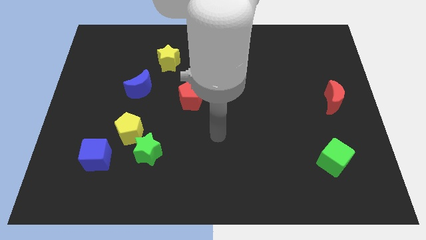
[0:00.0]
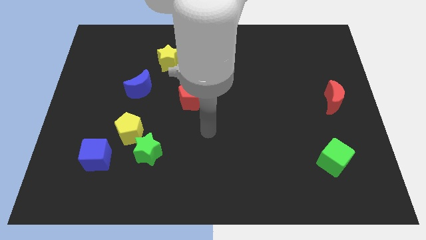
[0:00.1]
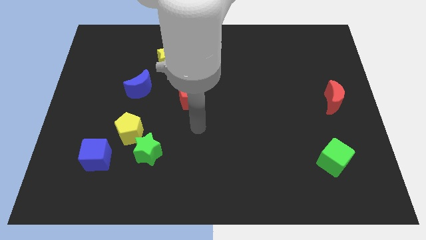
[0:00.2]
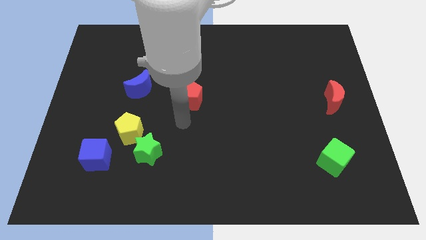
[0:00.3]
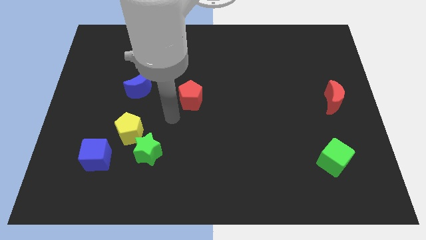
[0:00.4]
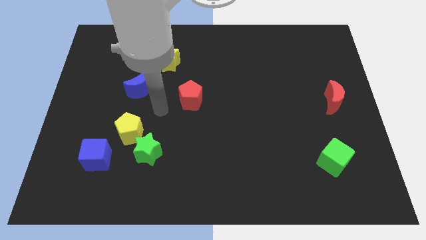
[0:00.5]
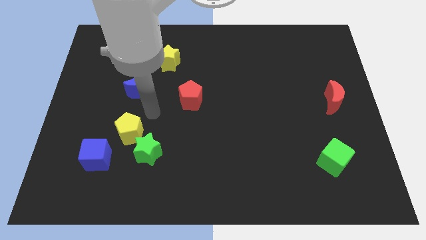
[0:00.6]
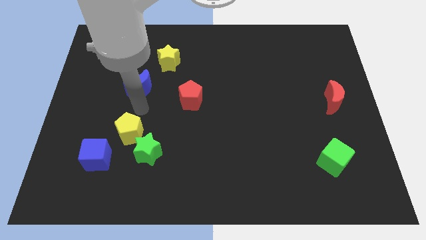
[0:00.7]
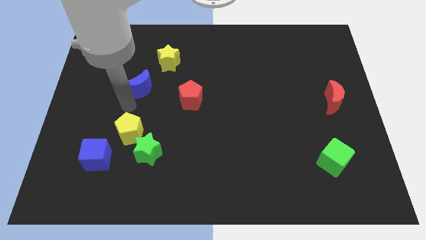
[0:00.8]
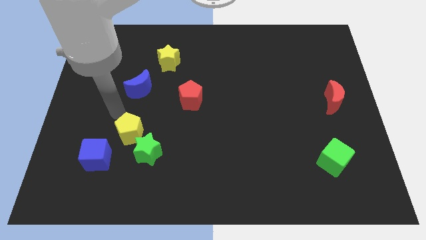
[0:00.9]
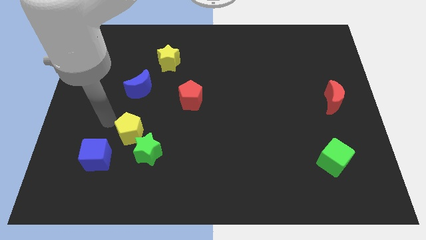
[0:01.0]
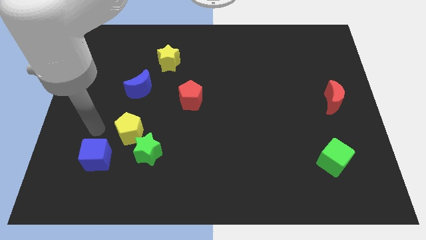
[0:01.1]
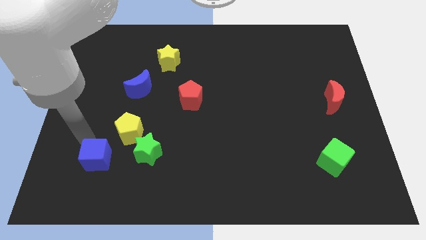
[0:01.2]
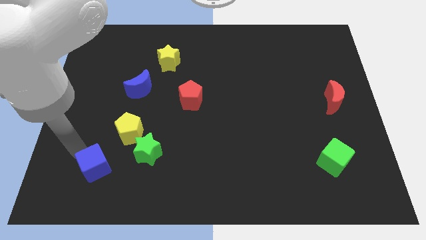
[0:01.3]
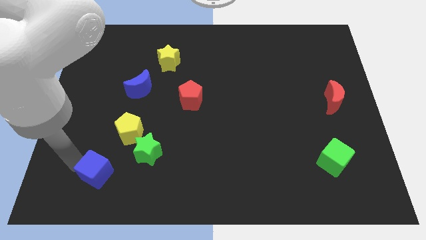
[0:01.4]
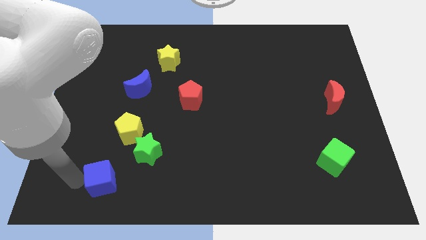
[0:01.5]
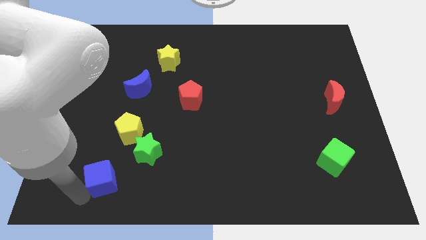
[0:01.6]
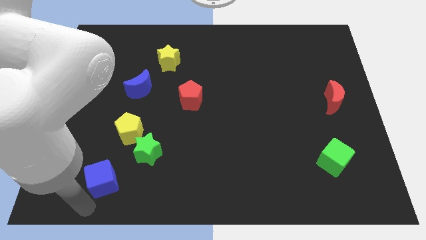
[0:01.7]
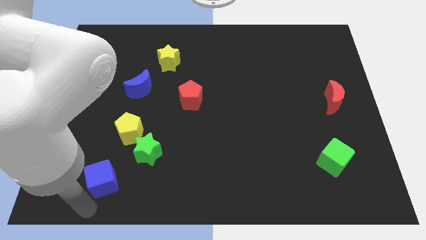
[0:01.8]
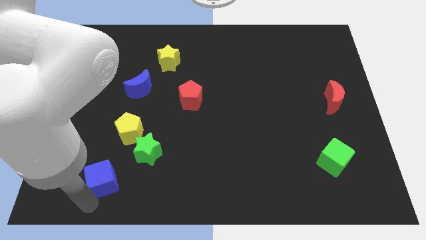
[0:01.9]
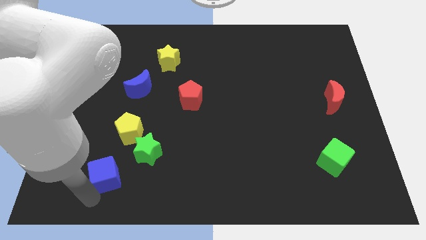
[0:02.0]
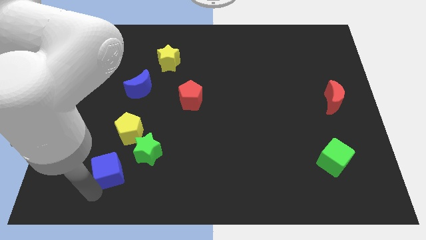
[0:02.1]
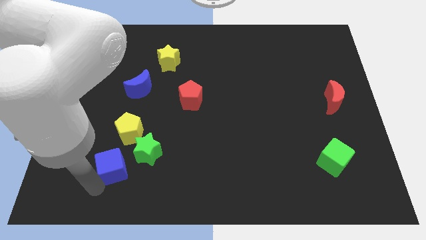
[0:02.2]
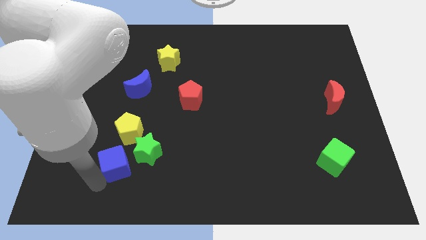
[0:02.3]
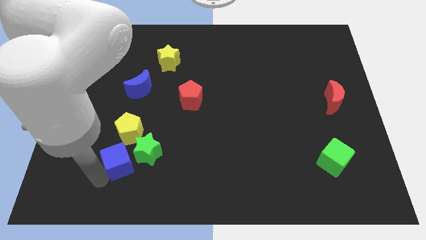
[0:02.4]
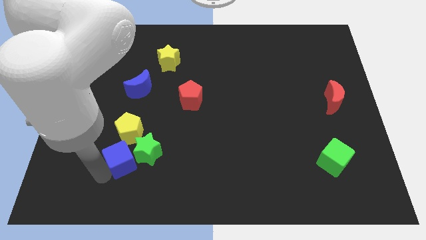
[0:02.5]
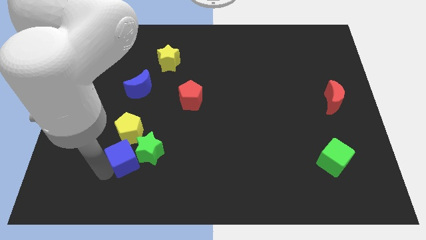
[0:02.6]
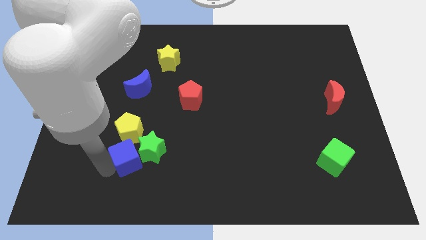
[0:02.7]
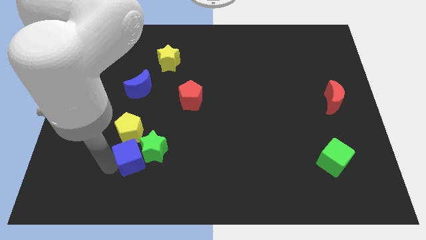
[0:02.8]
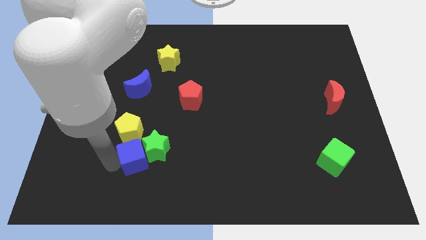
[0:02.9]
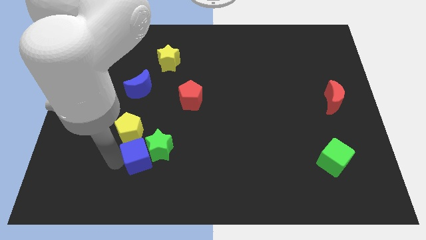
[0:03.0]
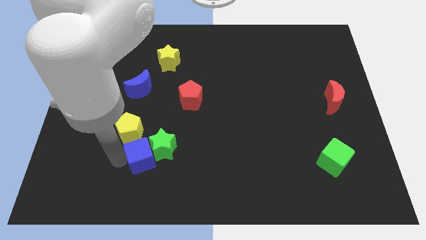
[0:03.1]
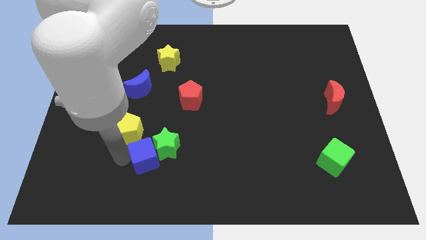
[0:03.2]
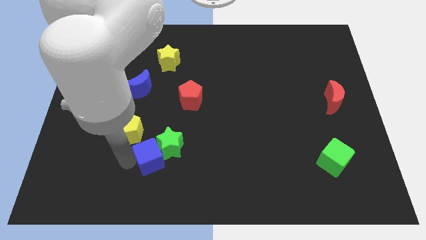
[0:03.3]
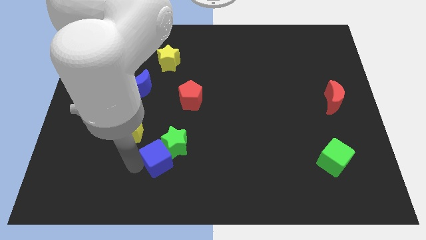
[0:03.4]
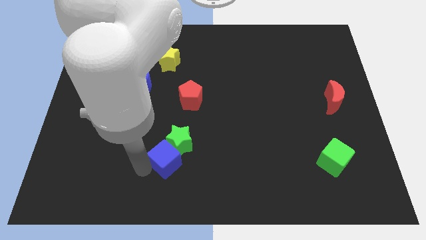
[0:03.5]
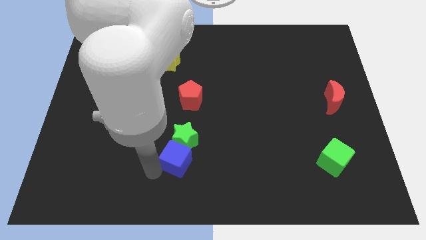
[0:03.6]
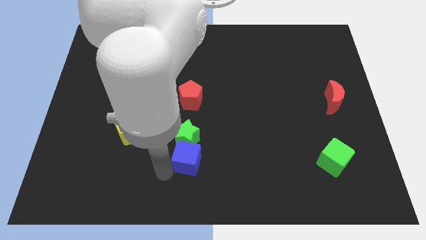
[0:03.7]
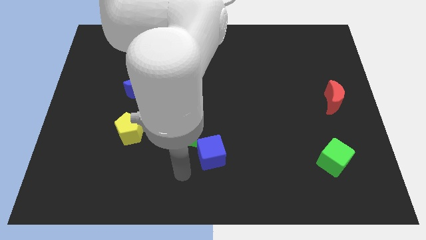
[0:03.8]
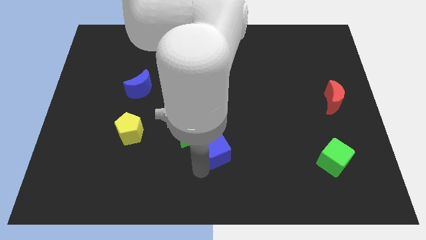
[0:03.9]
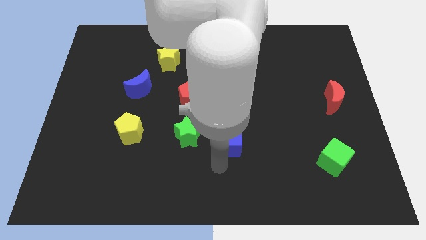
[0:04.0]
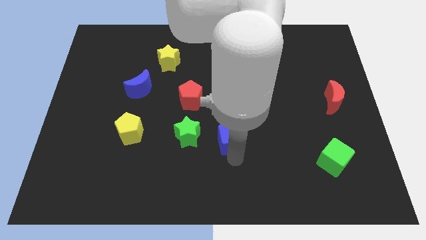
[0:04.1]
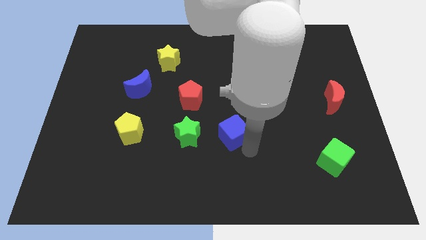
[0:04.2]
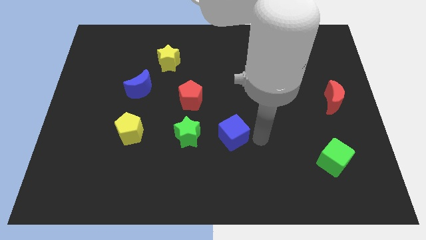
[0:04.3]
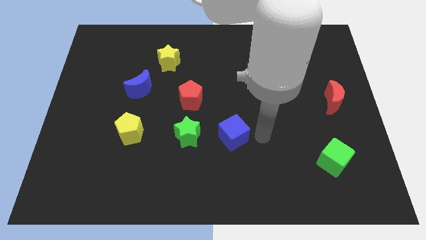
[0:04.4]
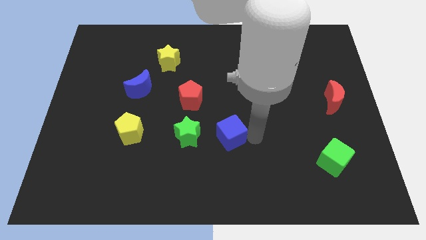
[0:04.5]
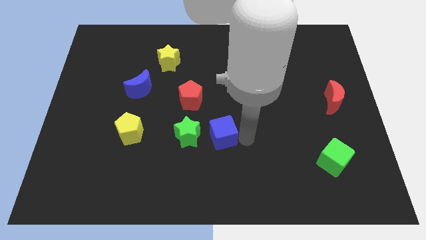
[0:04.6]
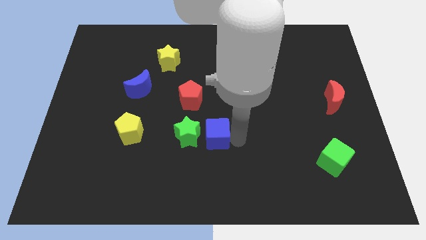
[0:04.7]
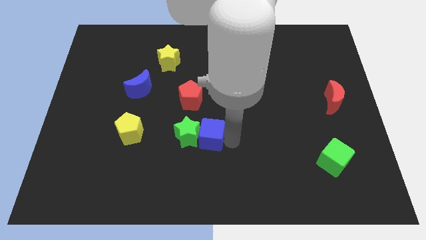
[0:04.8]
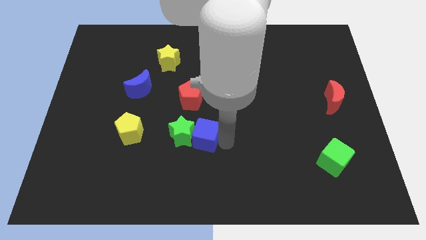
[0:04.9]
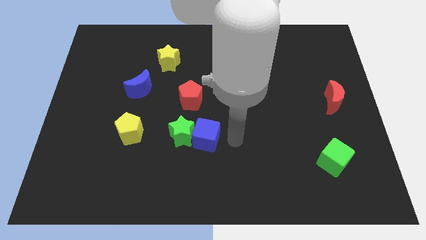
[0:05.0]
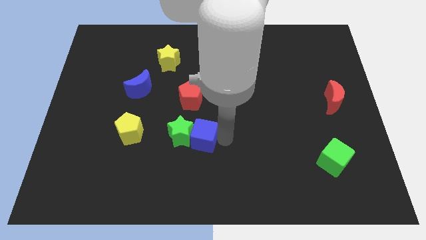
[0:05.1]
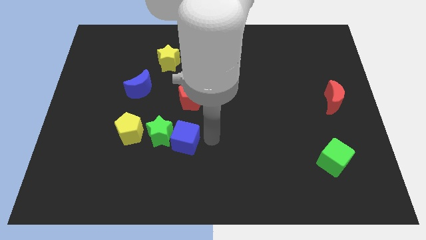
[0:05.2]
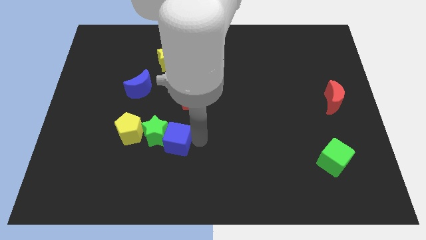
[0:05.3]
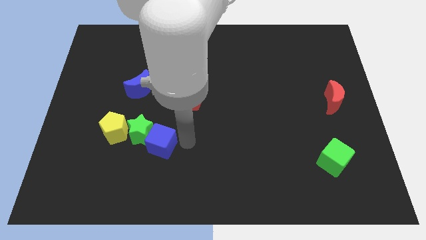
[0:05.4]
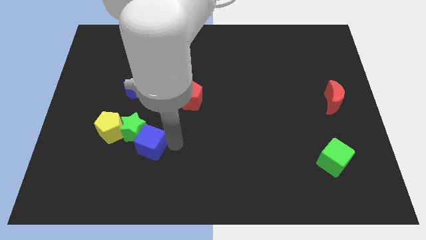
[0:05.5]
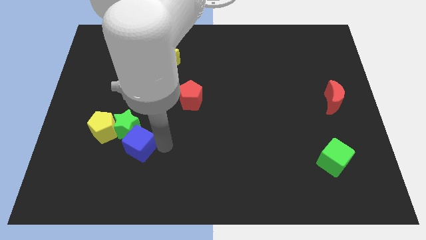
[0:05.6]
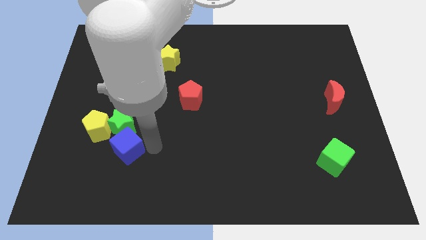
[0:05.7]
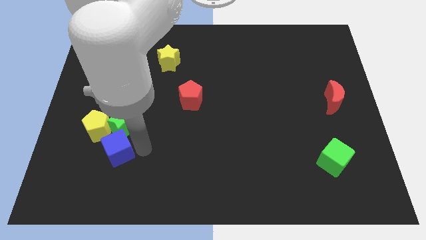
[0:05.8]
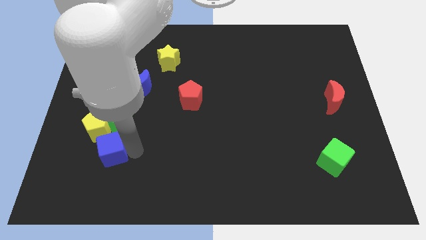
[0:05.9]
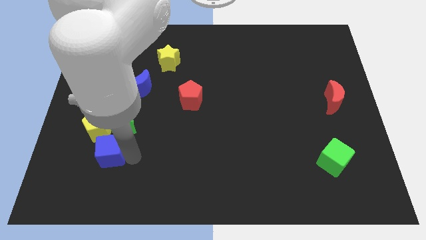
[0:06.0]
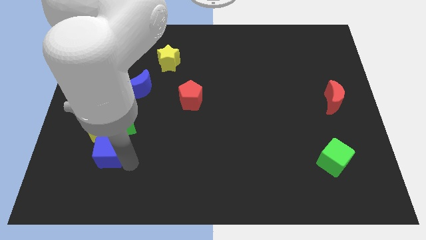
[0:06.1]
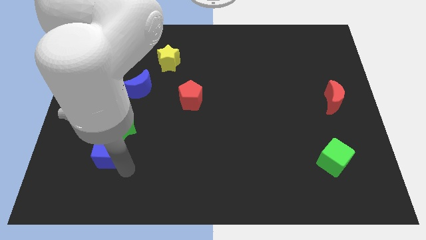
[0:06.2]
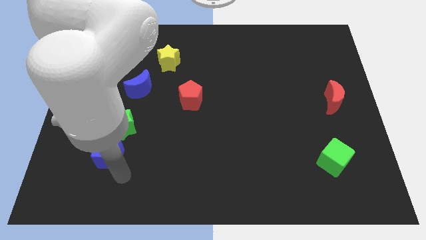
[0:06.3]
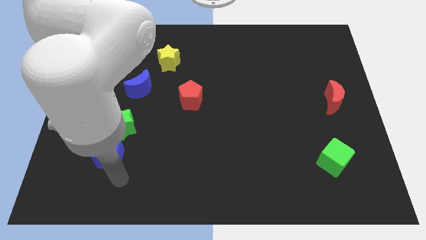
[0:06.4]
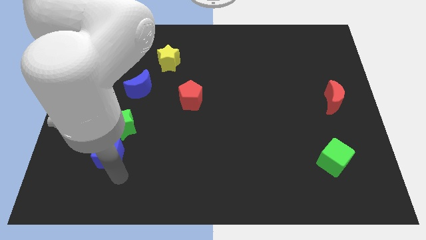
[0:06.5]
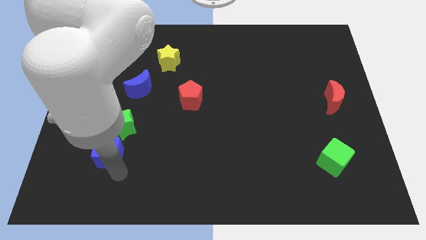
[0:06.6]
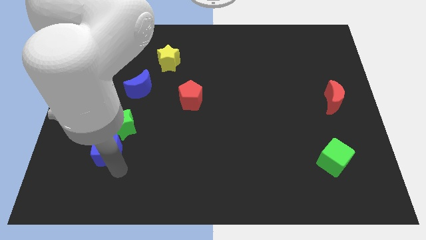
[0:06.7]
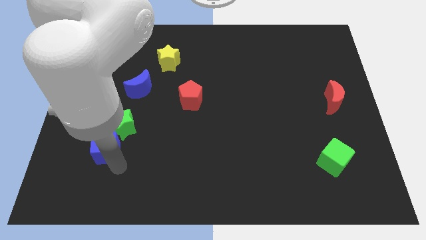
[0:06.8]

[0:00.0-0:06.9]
put the blue cube next to the yellow pentagon
